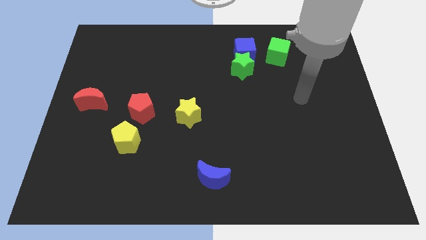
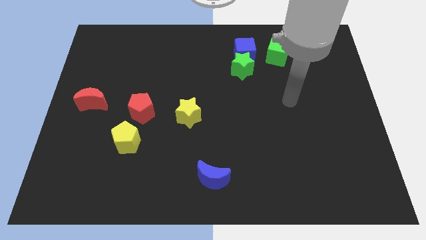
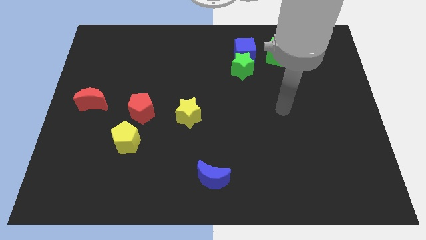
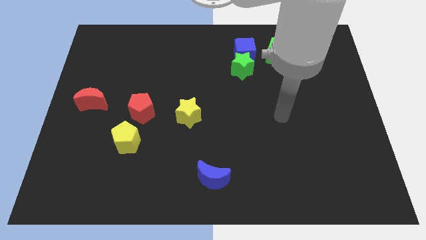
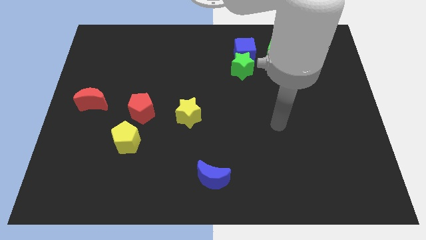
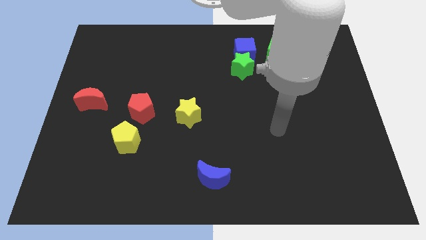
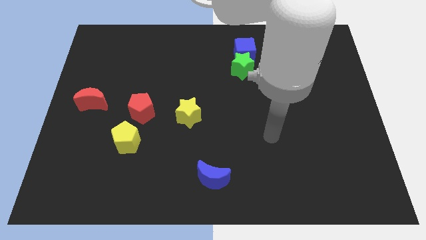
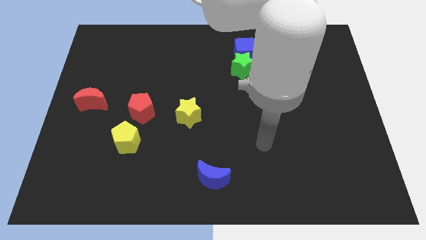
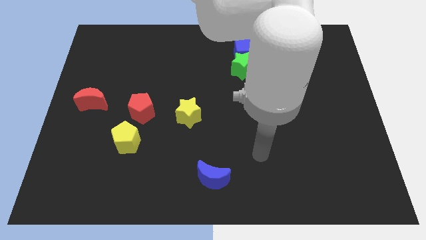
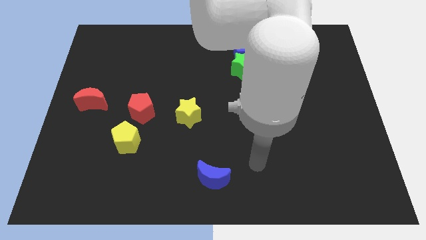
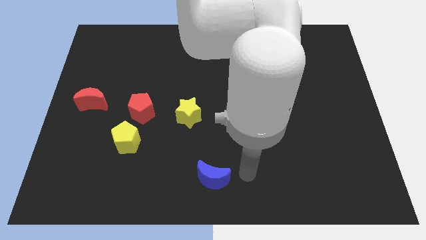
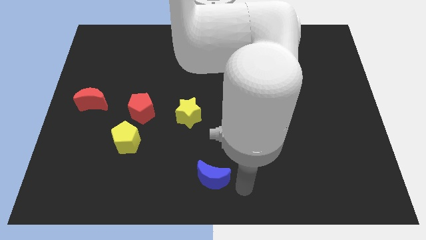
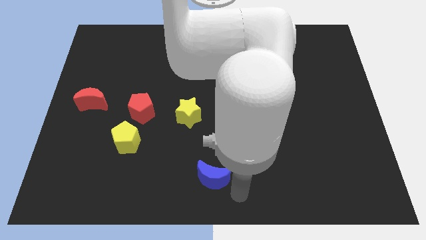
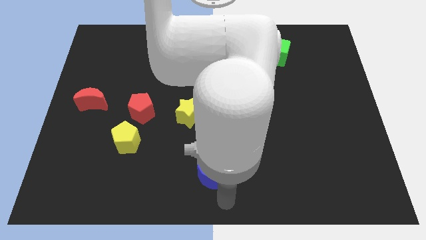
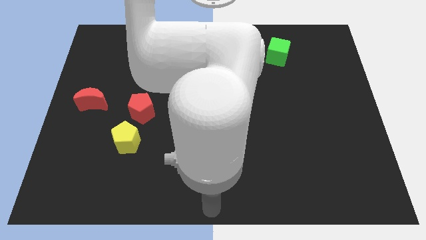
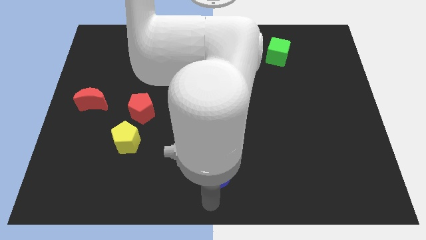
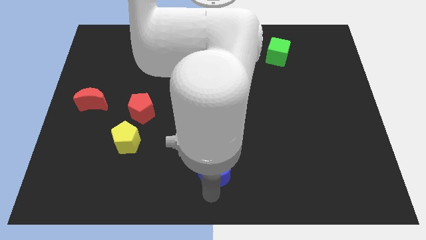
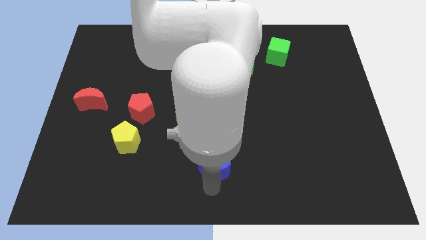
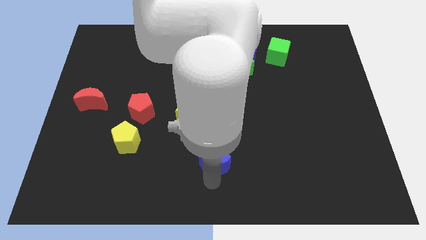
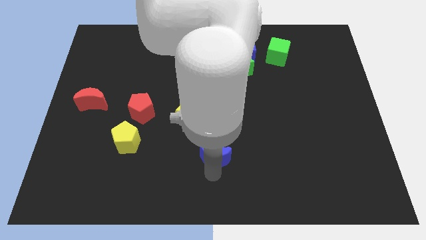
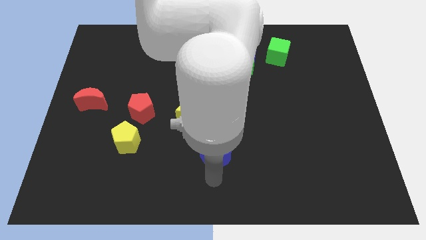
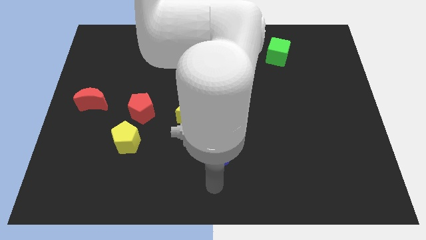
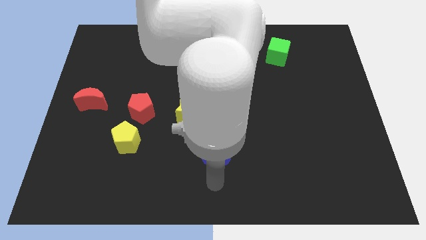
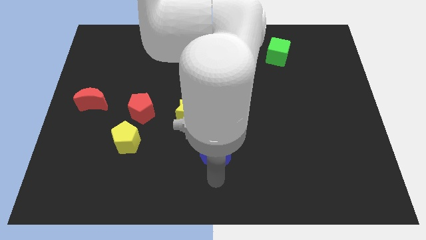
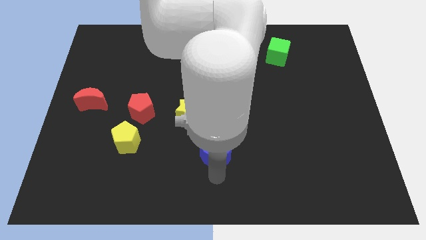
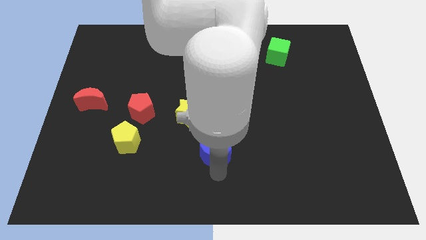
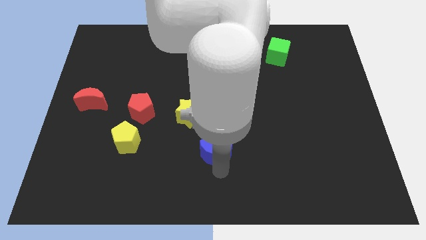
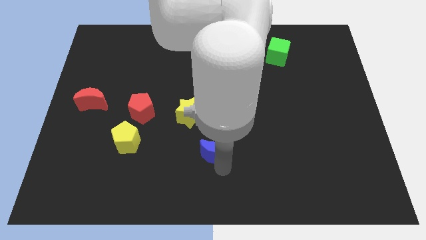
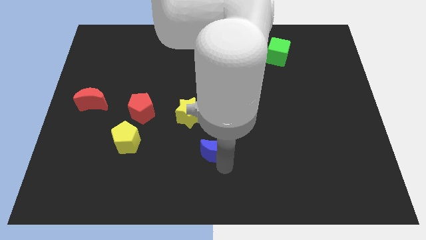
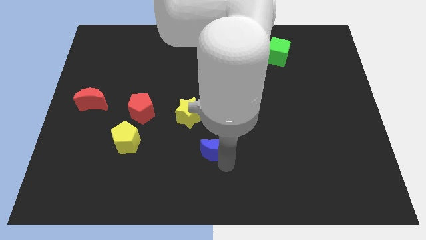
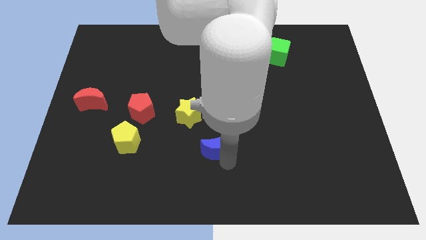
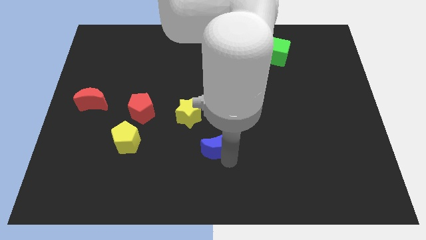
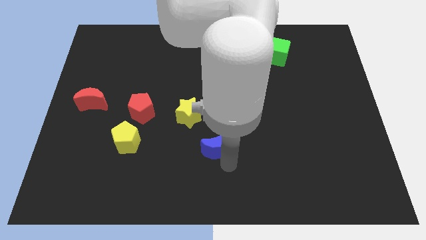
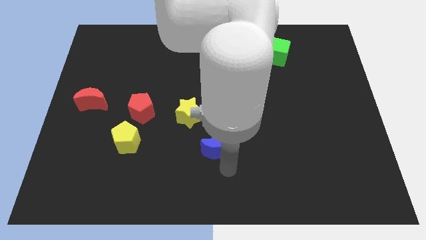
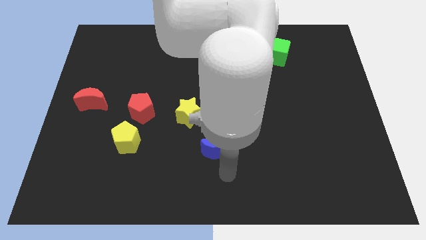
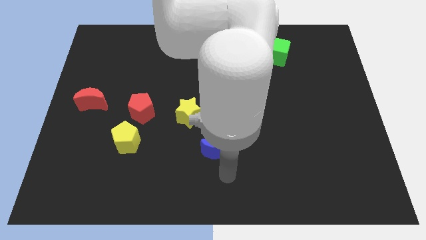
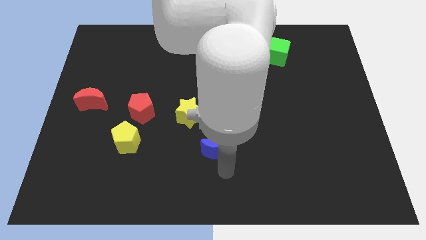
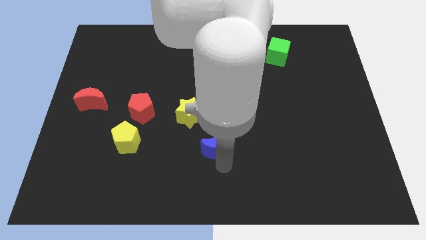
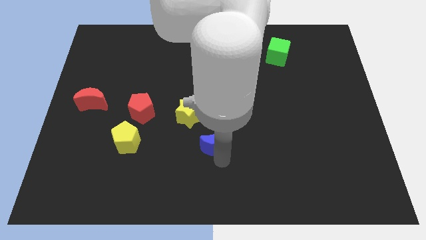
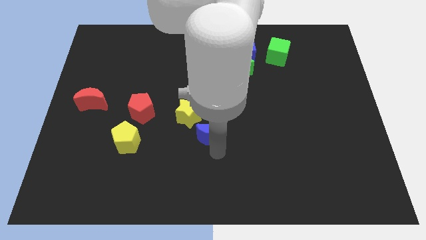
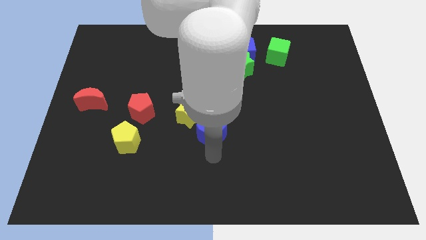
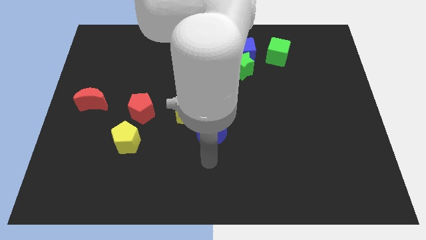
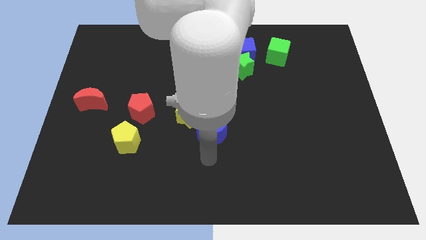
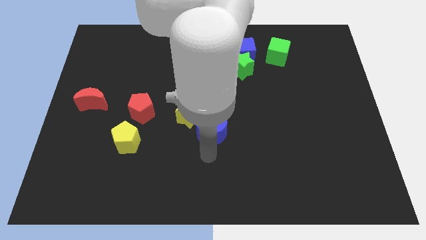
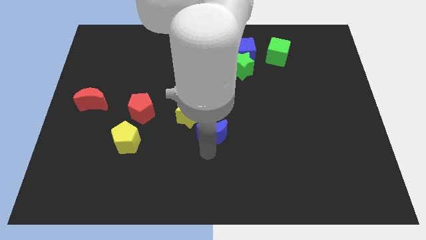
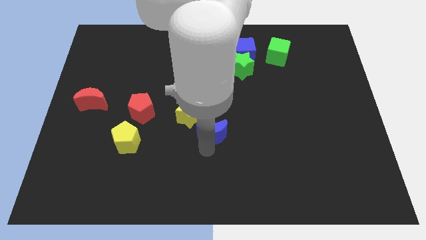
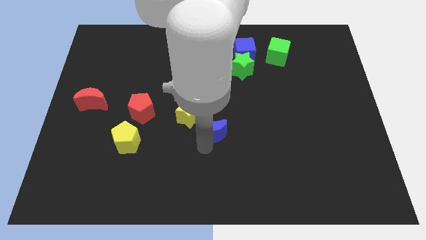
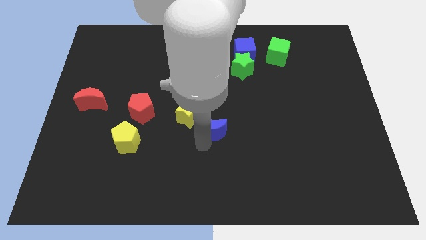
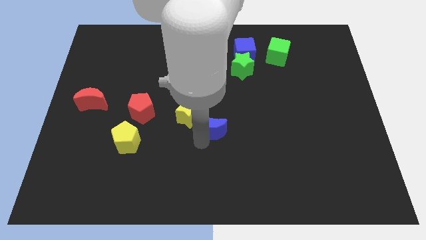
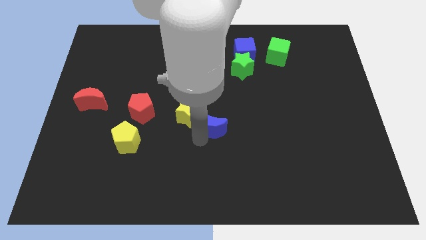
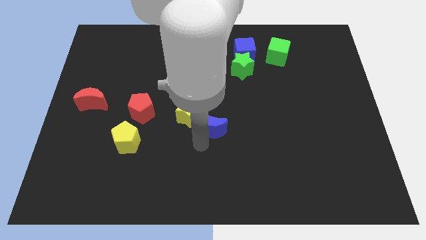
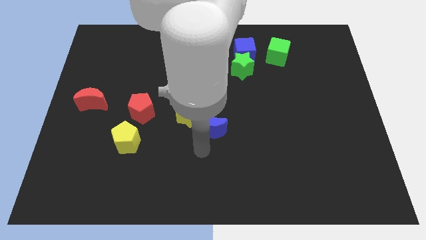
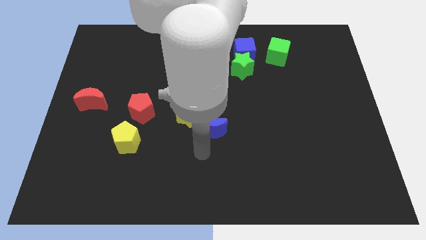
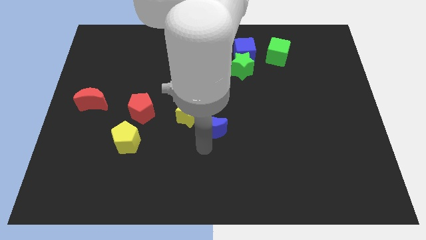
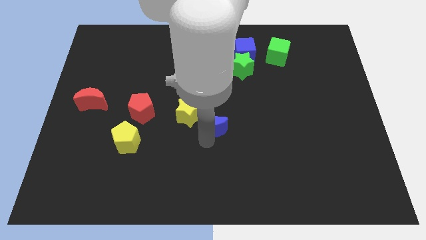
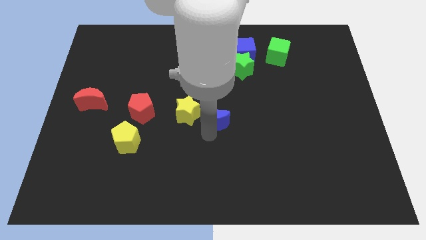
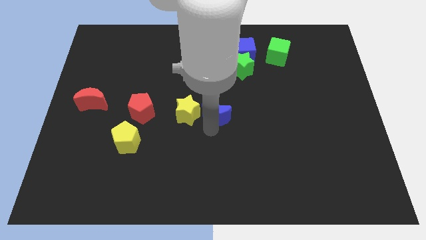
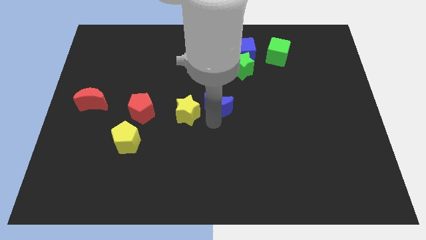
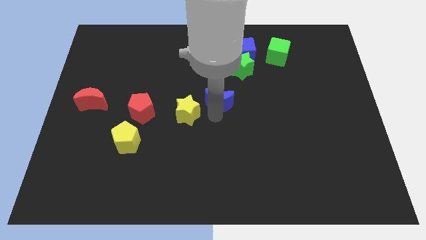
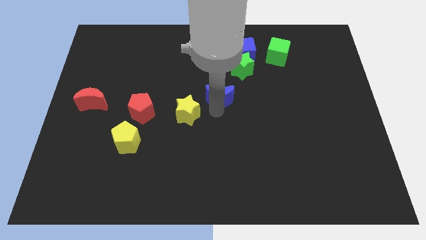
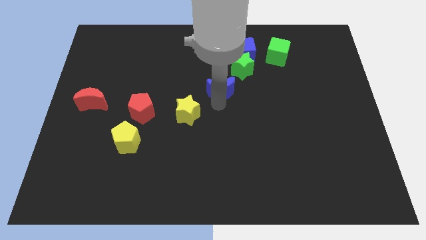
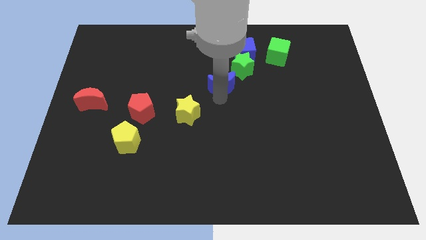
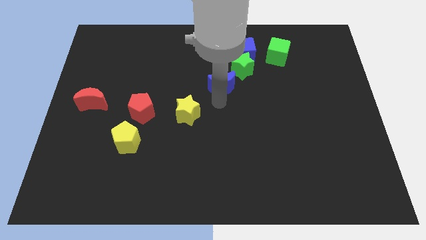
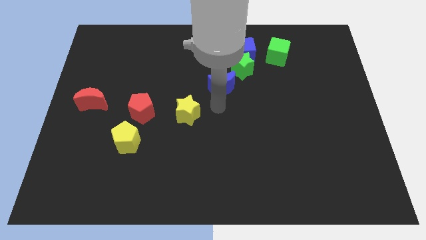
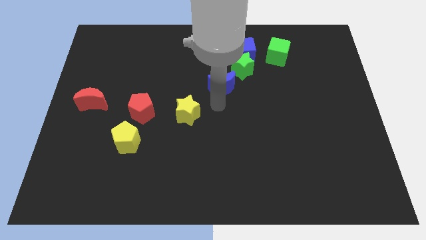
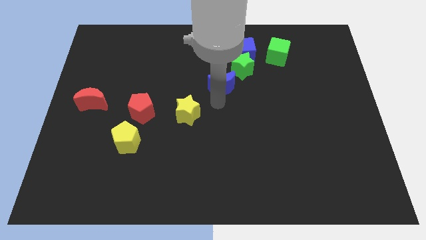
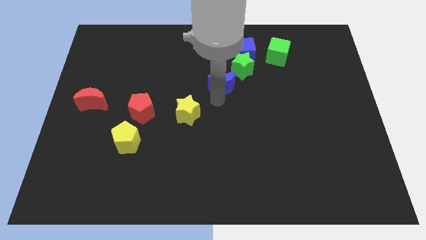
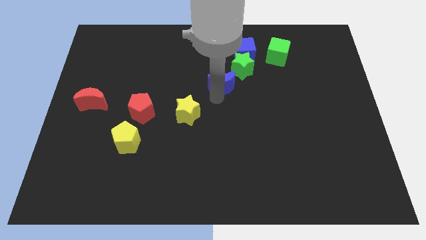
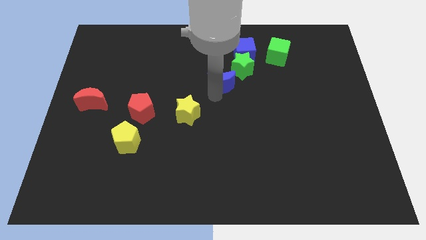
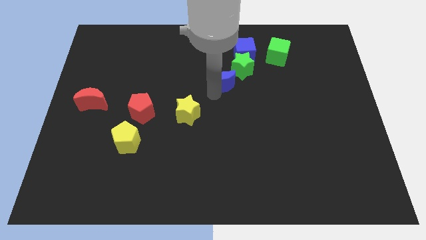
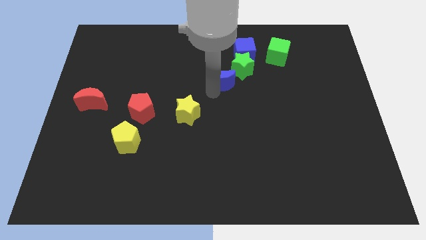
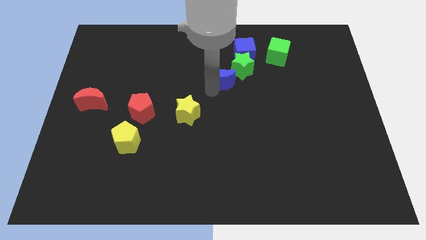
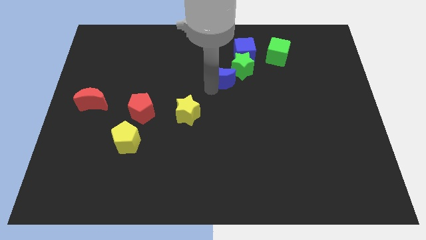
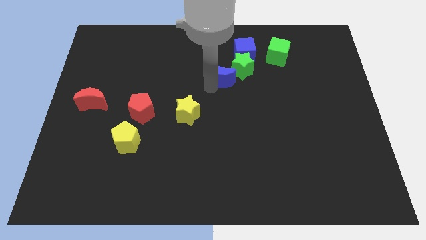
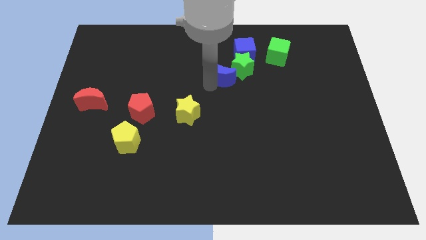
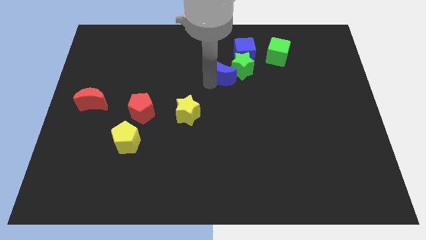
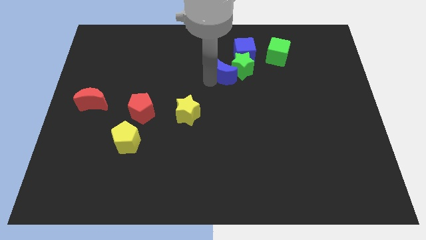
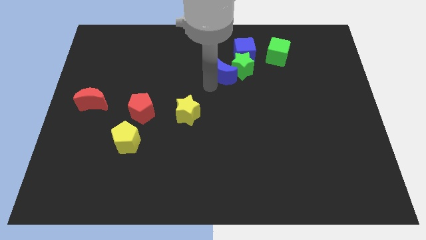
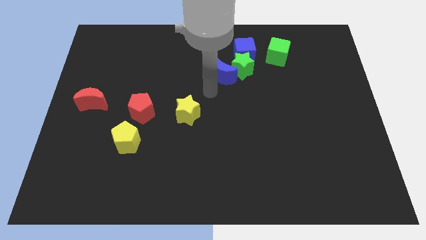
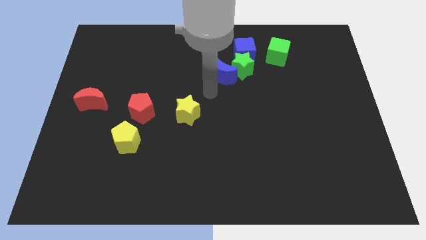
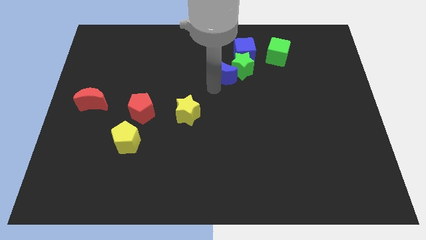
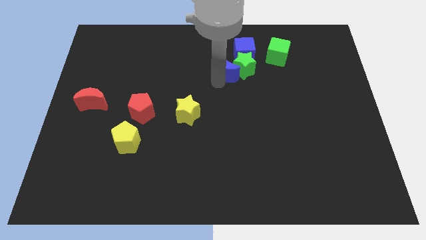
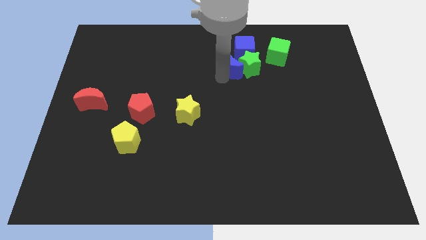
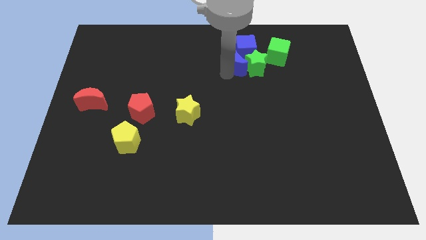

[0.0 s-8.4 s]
slide the blue moon to the left side of the green cube
